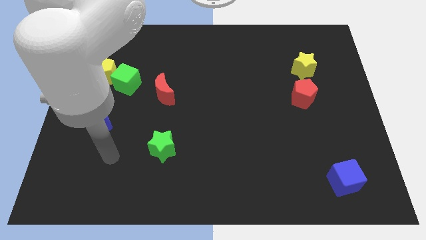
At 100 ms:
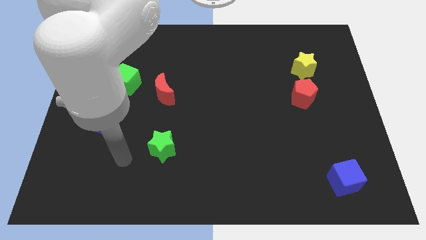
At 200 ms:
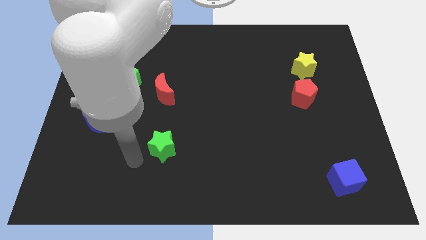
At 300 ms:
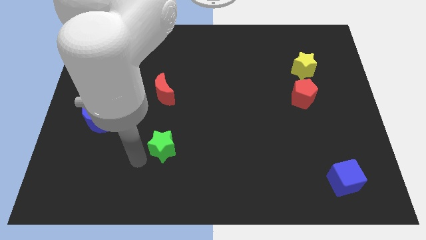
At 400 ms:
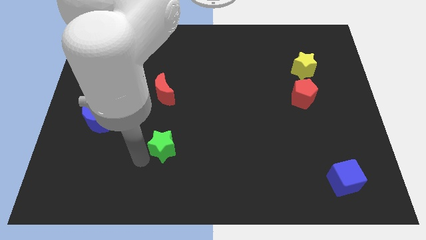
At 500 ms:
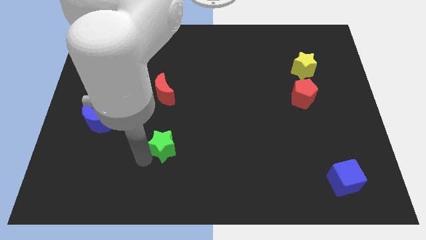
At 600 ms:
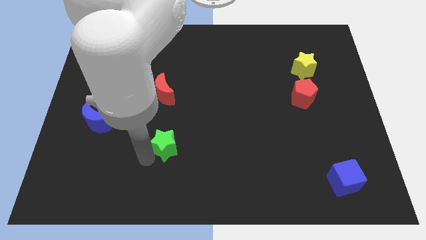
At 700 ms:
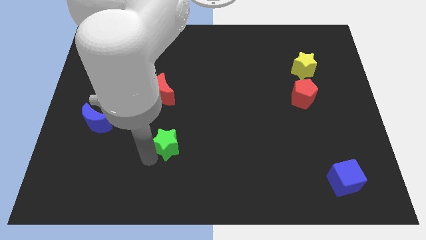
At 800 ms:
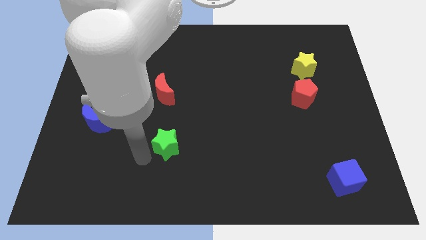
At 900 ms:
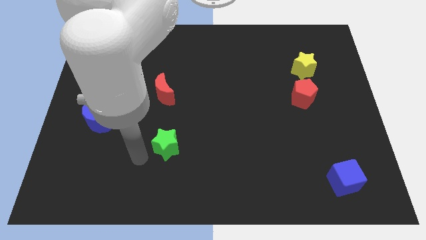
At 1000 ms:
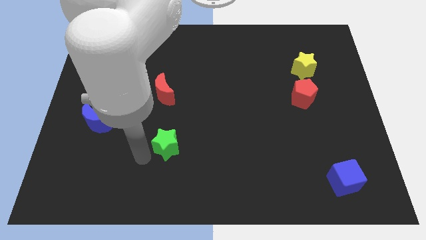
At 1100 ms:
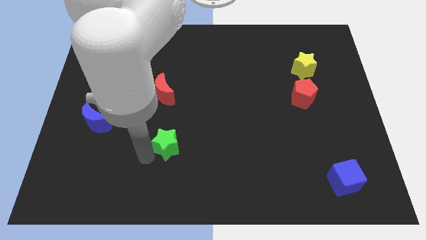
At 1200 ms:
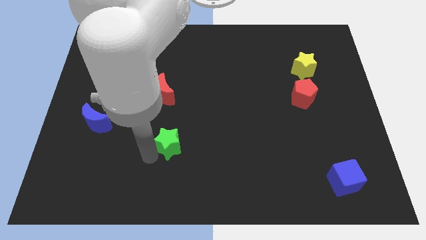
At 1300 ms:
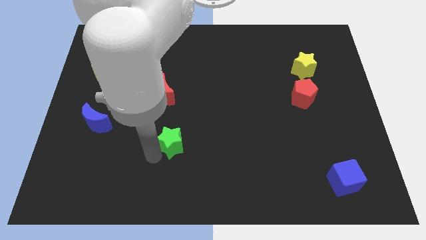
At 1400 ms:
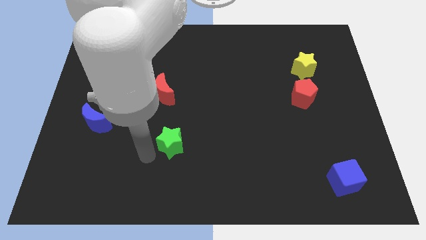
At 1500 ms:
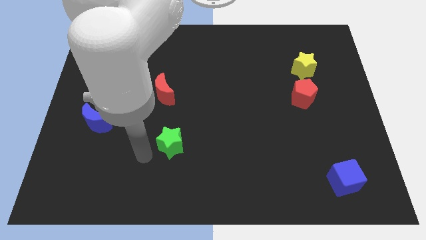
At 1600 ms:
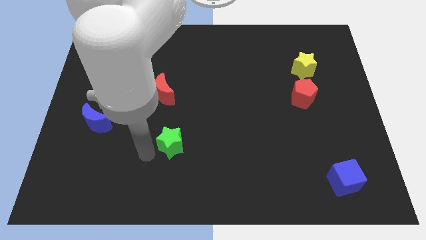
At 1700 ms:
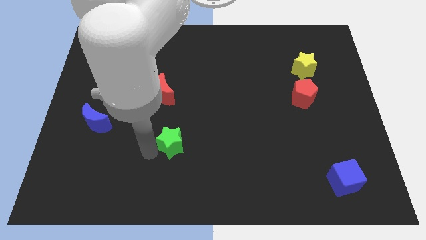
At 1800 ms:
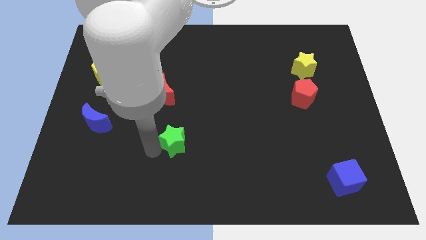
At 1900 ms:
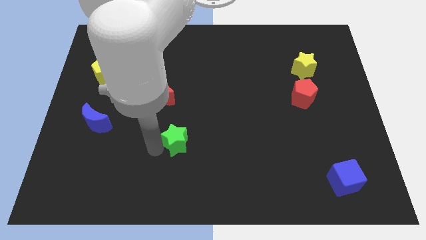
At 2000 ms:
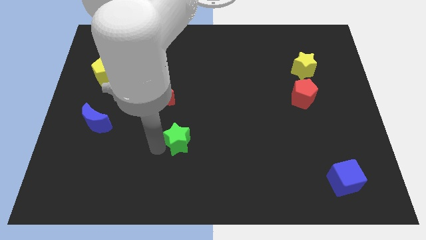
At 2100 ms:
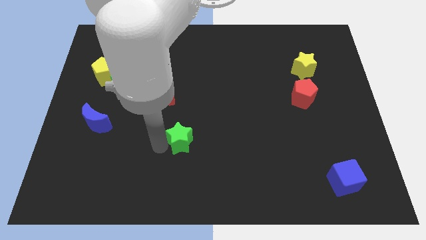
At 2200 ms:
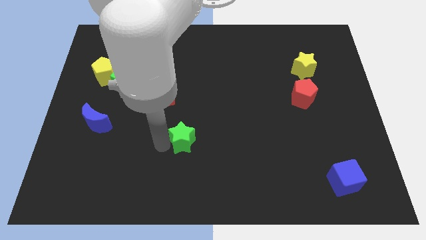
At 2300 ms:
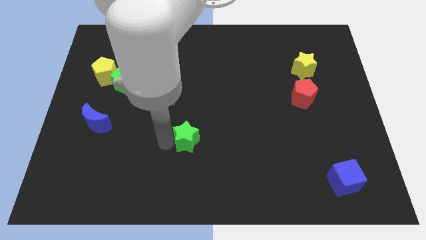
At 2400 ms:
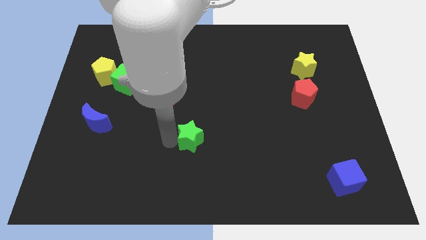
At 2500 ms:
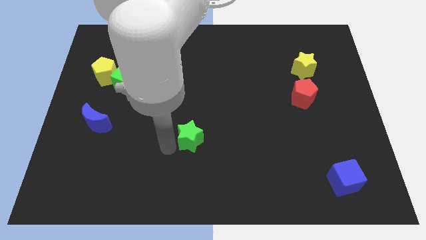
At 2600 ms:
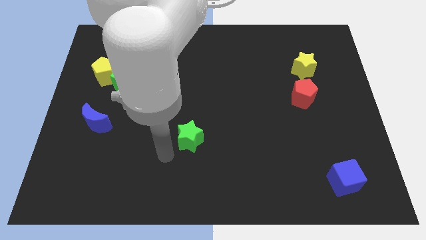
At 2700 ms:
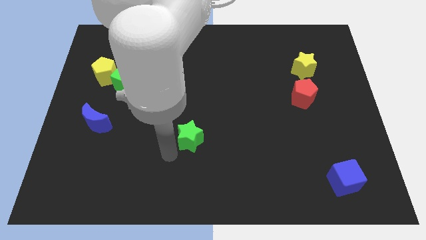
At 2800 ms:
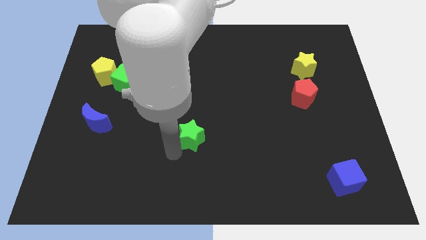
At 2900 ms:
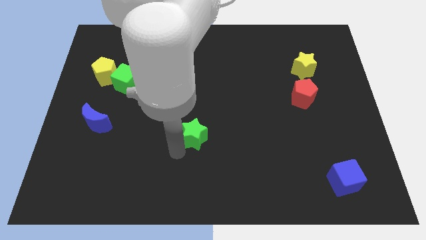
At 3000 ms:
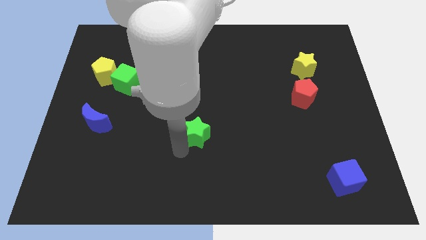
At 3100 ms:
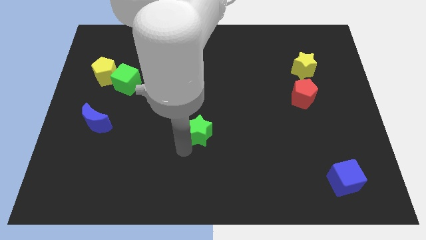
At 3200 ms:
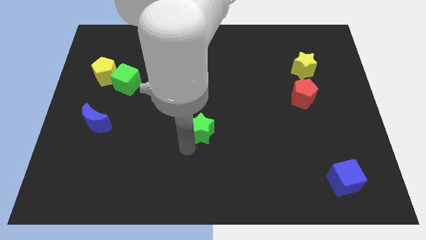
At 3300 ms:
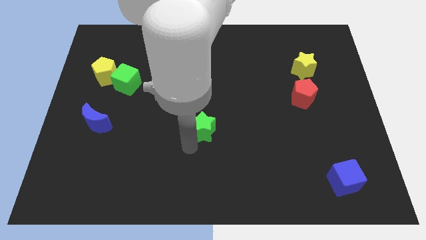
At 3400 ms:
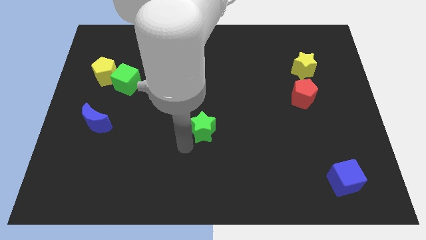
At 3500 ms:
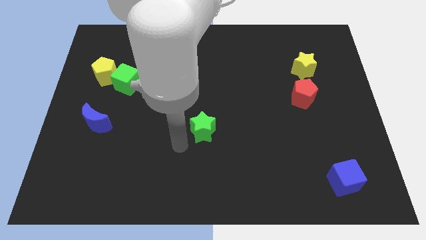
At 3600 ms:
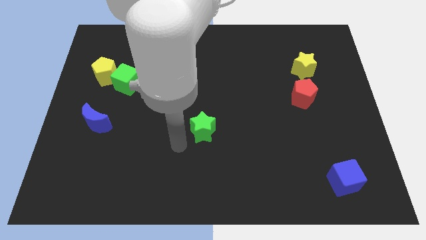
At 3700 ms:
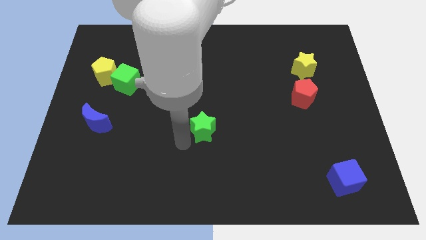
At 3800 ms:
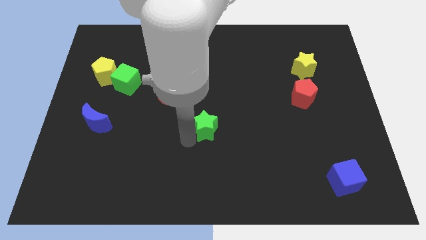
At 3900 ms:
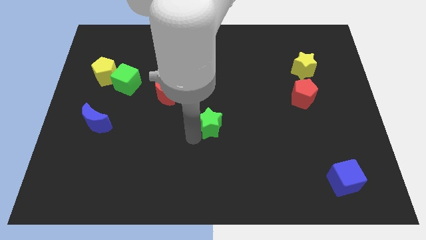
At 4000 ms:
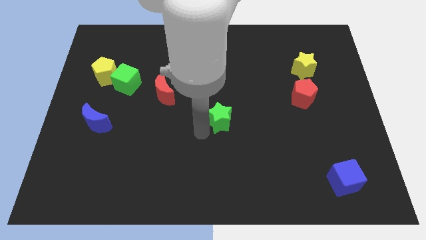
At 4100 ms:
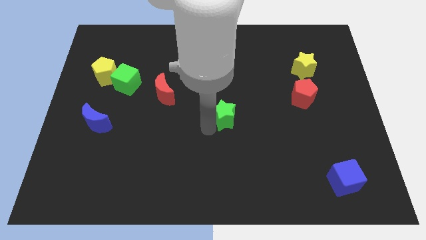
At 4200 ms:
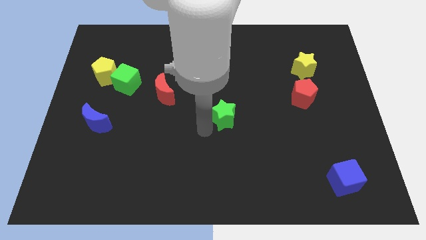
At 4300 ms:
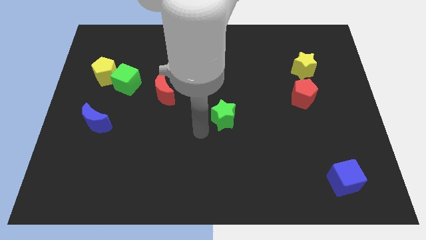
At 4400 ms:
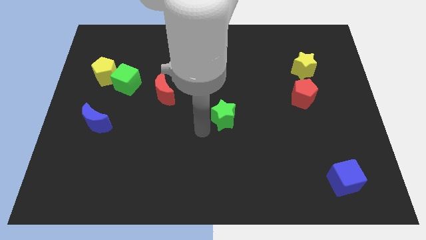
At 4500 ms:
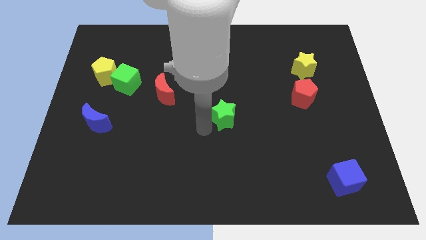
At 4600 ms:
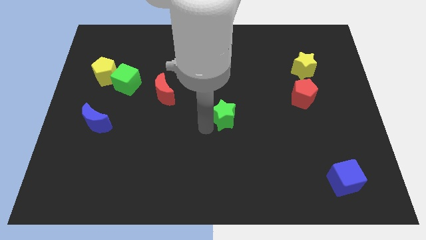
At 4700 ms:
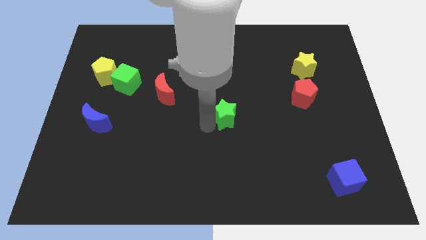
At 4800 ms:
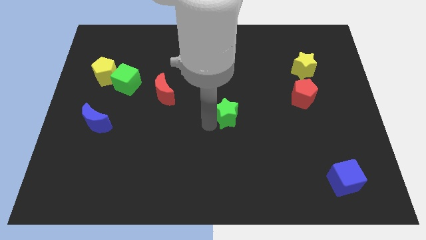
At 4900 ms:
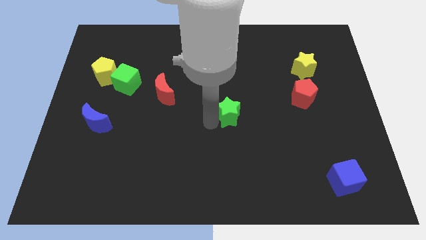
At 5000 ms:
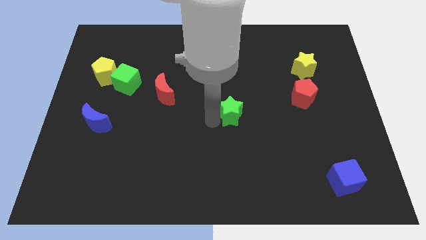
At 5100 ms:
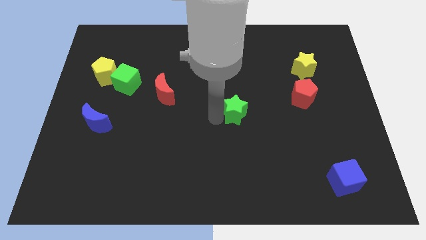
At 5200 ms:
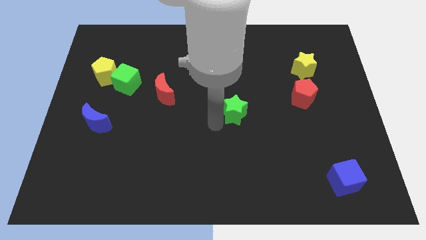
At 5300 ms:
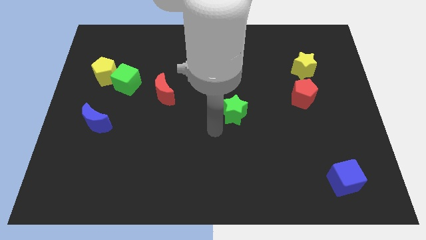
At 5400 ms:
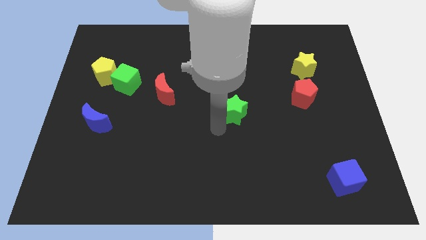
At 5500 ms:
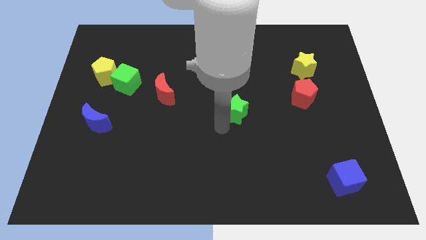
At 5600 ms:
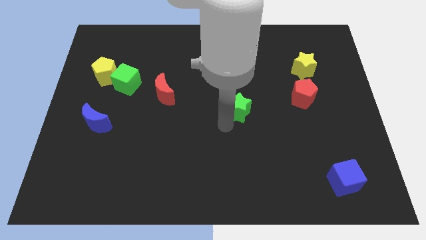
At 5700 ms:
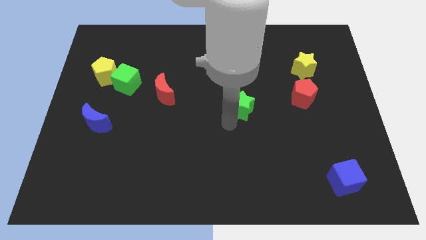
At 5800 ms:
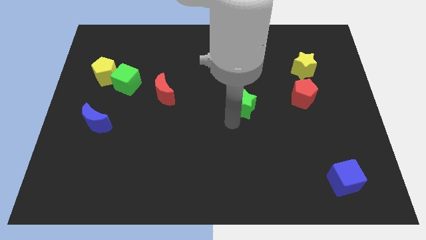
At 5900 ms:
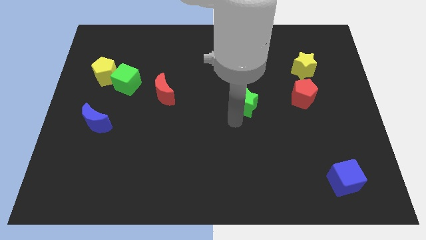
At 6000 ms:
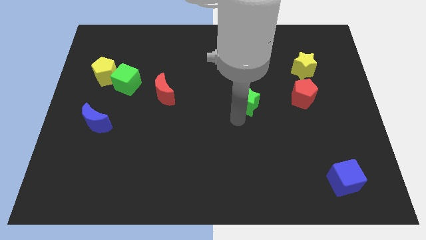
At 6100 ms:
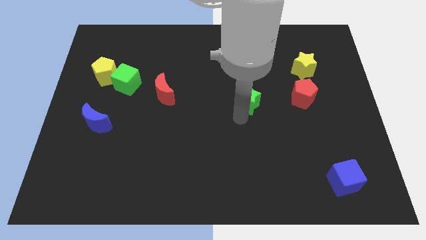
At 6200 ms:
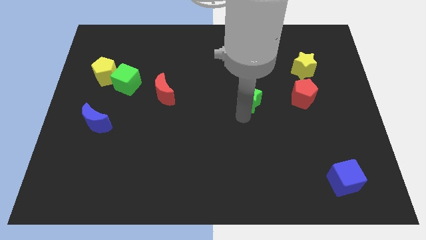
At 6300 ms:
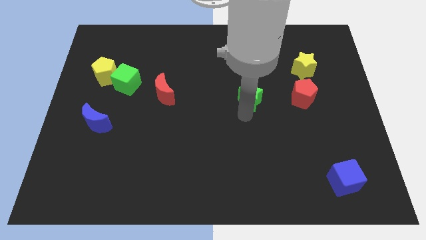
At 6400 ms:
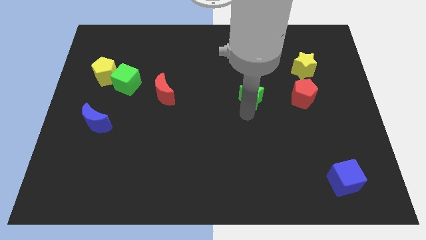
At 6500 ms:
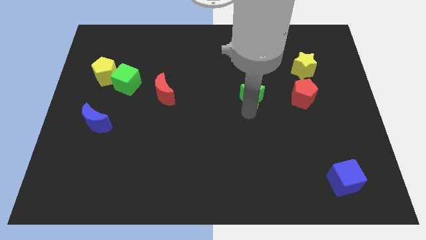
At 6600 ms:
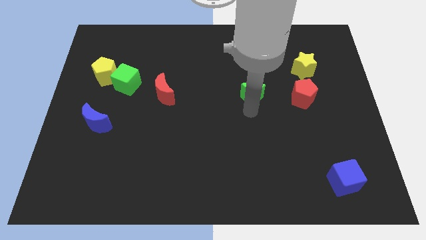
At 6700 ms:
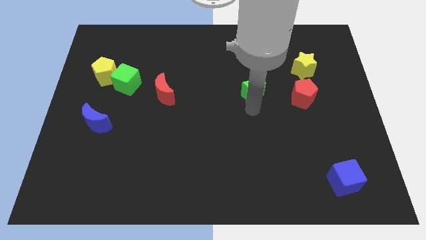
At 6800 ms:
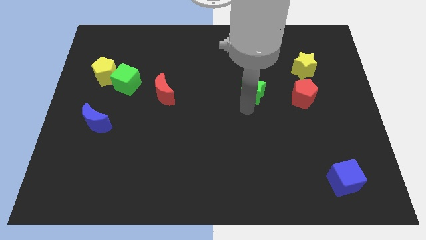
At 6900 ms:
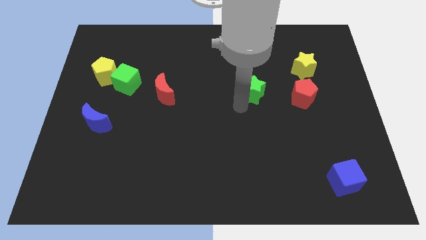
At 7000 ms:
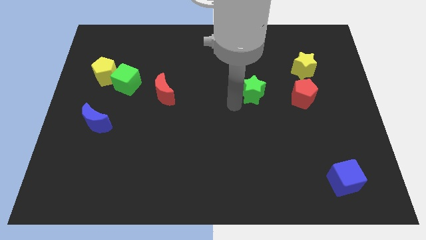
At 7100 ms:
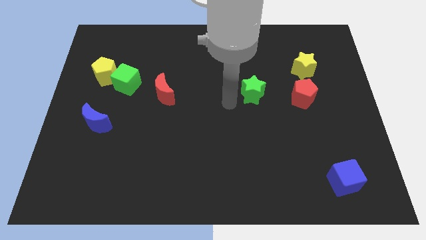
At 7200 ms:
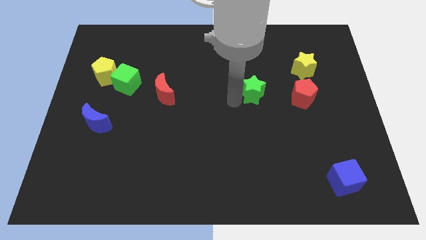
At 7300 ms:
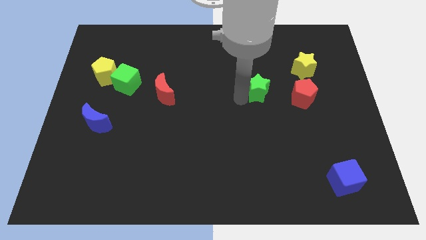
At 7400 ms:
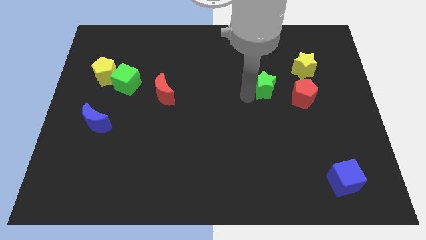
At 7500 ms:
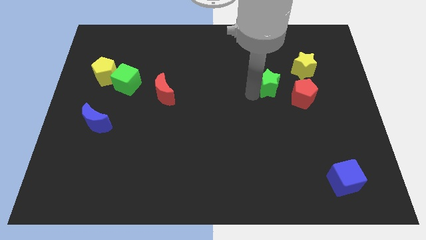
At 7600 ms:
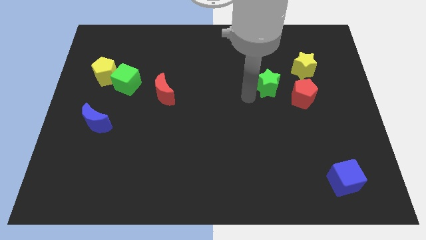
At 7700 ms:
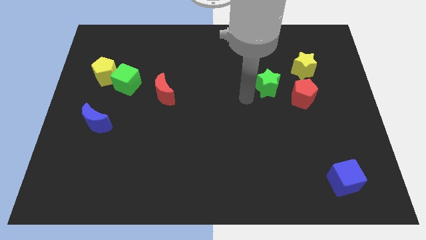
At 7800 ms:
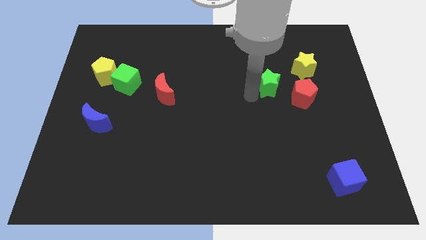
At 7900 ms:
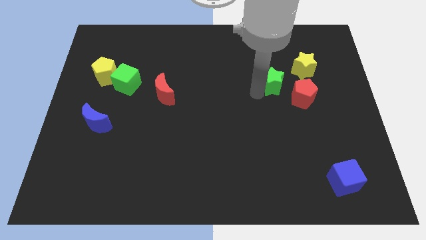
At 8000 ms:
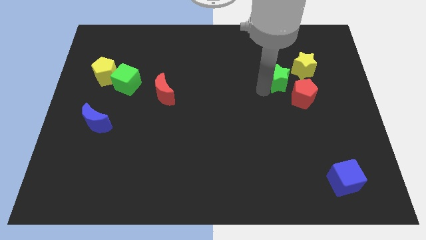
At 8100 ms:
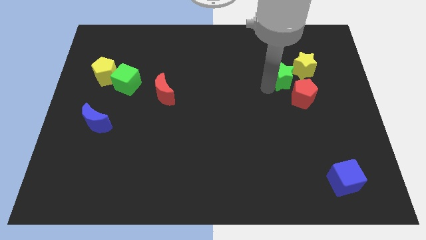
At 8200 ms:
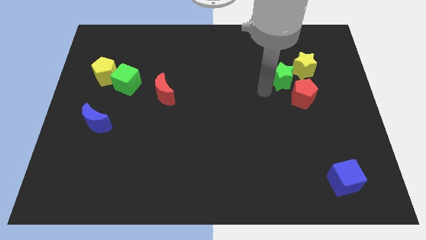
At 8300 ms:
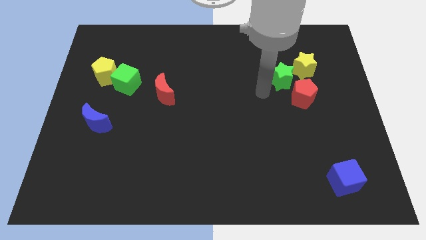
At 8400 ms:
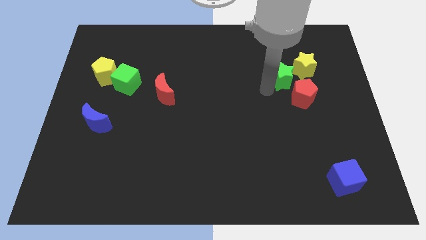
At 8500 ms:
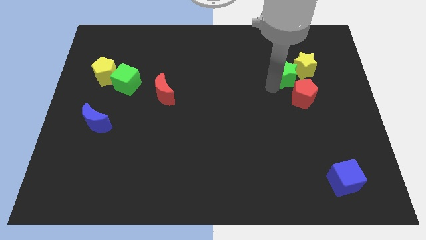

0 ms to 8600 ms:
slide the green star close to the yellow star
